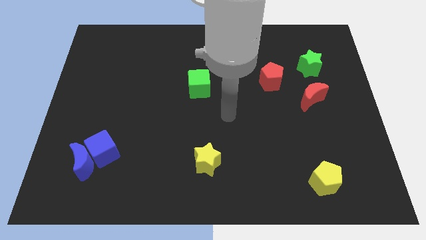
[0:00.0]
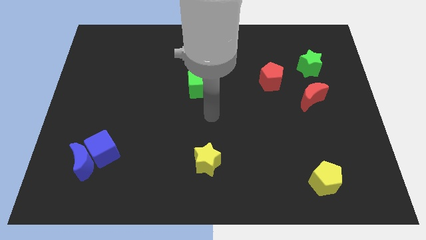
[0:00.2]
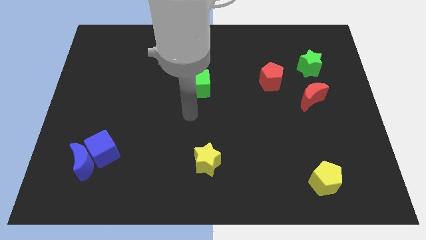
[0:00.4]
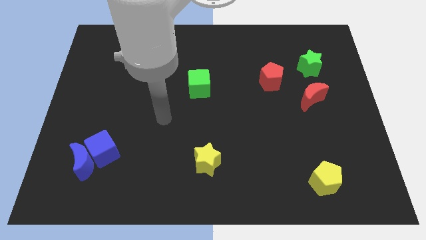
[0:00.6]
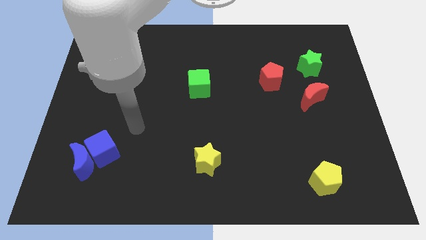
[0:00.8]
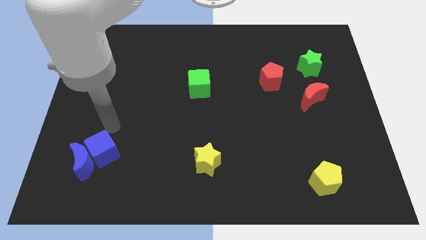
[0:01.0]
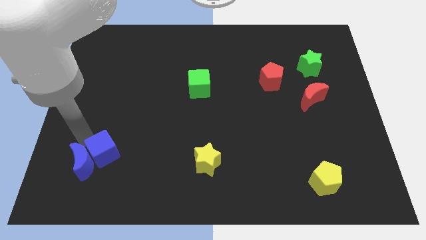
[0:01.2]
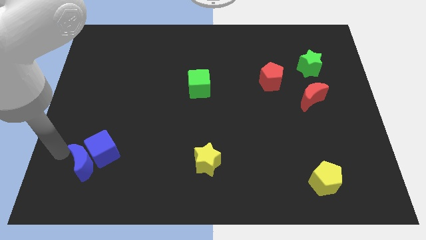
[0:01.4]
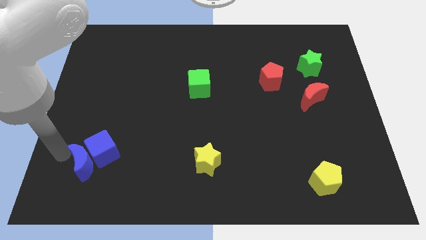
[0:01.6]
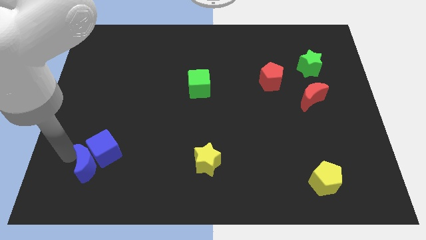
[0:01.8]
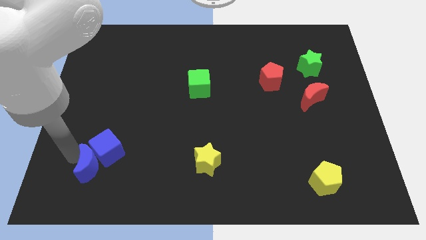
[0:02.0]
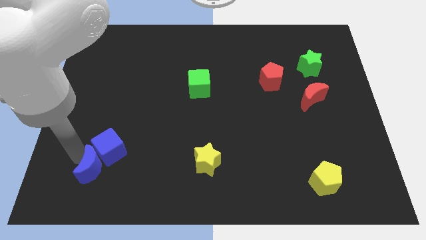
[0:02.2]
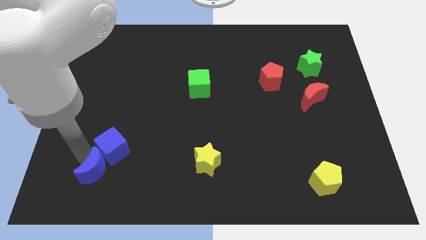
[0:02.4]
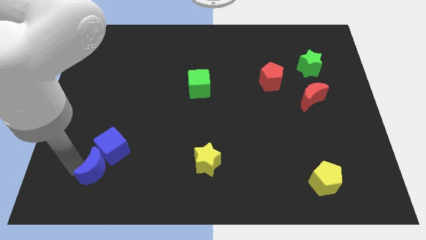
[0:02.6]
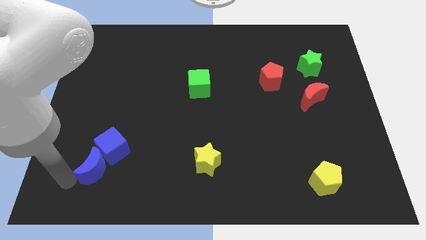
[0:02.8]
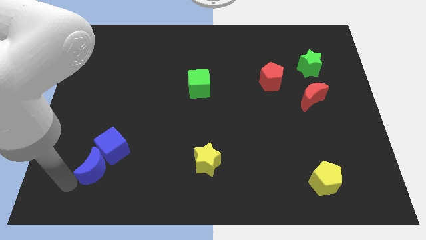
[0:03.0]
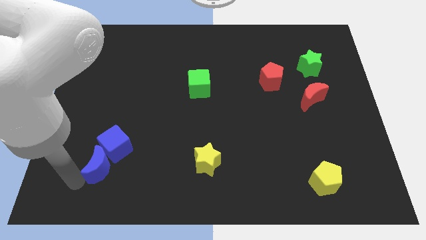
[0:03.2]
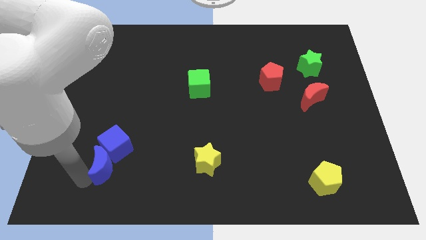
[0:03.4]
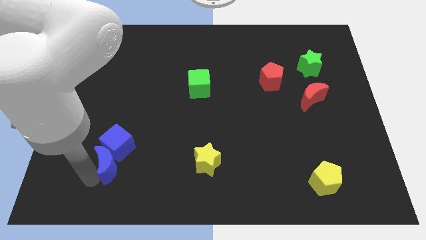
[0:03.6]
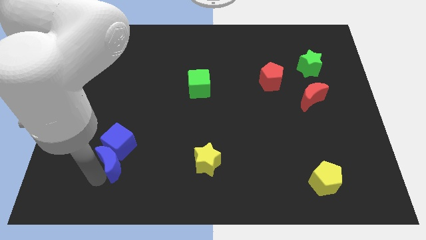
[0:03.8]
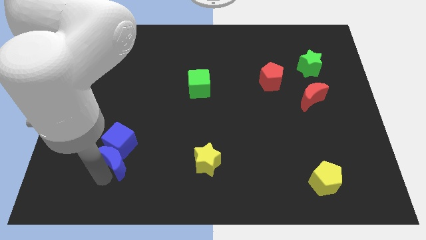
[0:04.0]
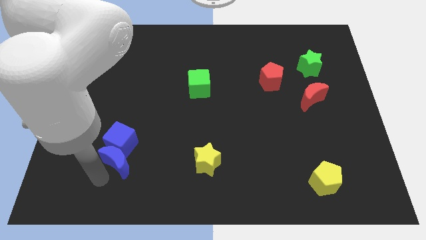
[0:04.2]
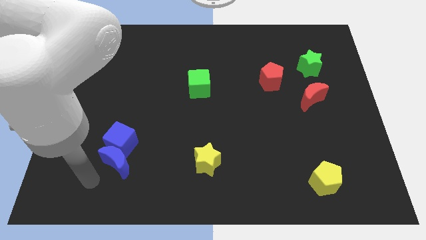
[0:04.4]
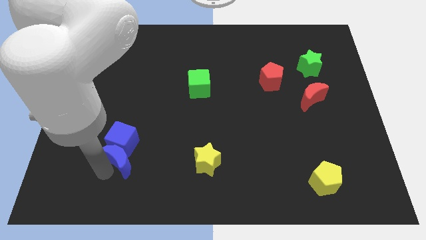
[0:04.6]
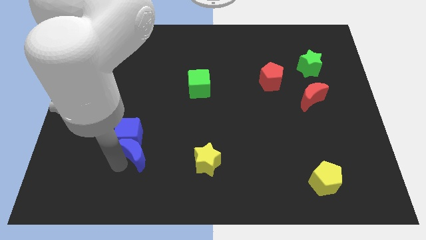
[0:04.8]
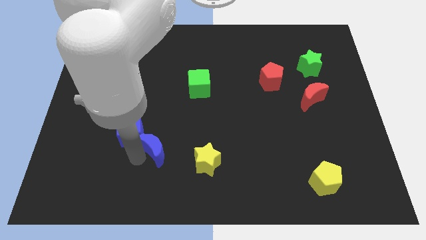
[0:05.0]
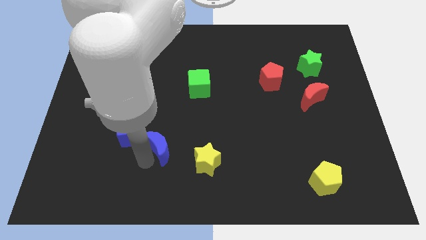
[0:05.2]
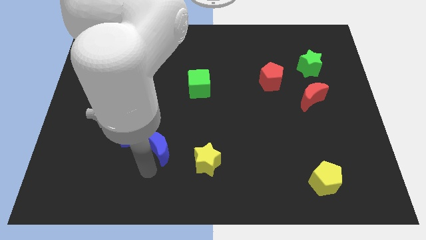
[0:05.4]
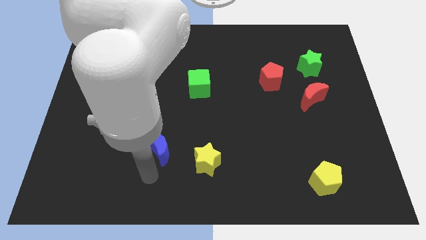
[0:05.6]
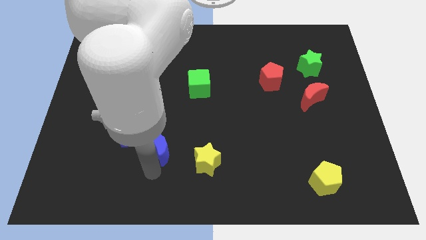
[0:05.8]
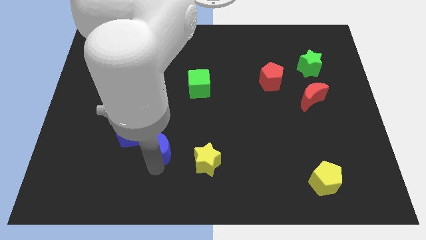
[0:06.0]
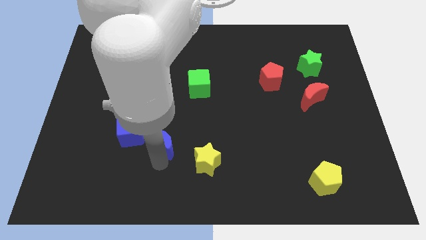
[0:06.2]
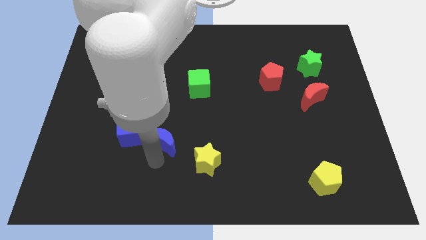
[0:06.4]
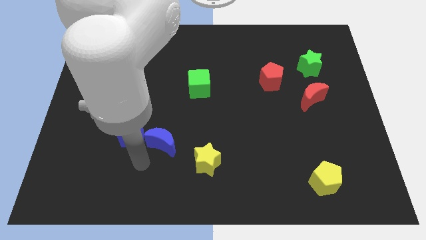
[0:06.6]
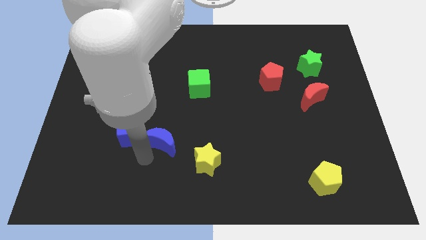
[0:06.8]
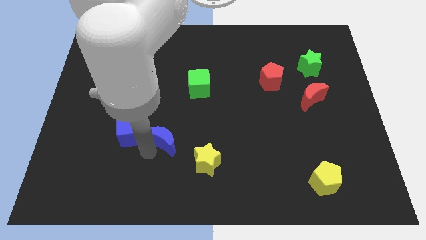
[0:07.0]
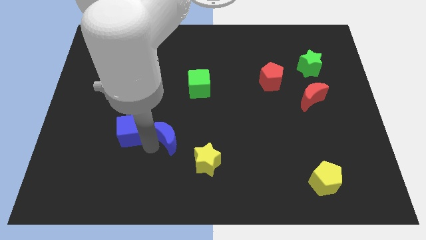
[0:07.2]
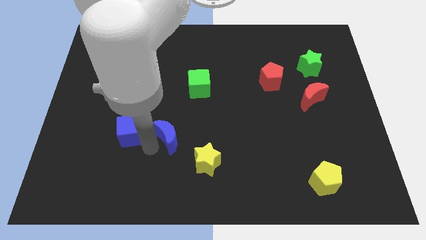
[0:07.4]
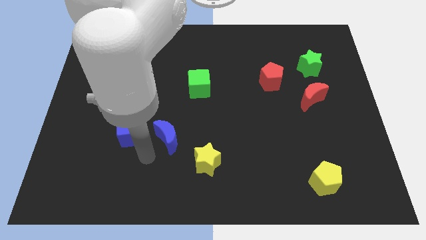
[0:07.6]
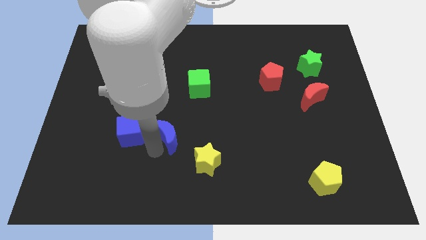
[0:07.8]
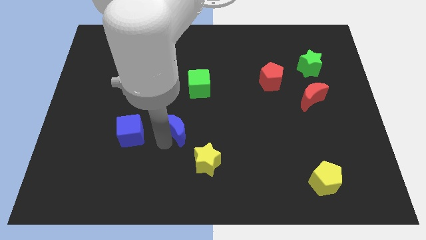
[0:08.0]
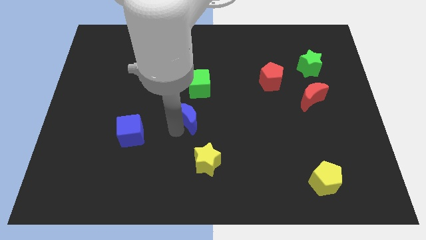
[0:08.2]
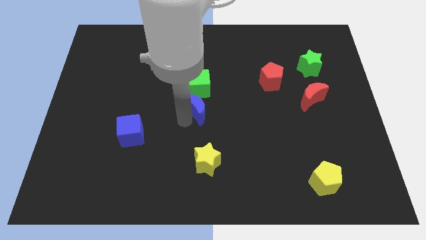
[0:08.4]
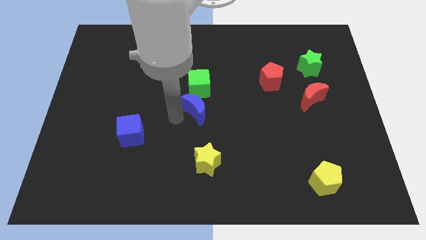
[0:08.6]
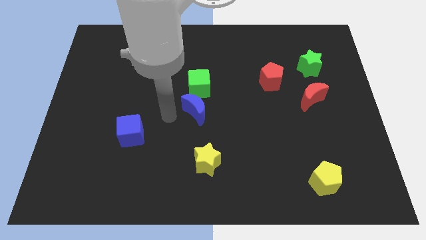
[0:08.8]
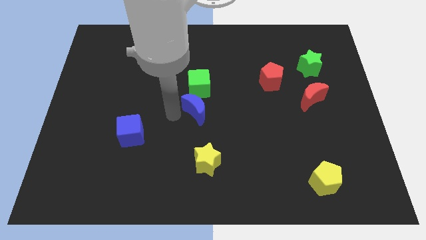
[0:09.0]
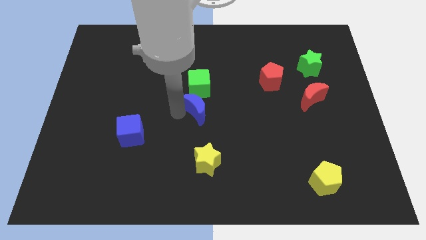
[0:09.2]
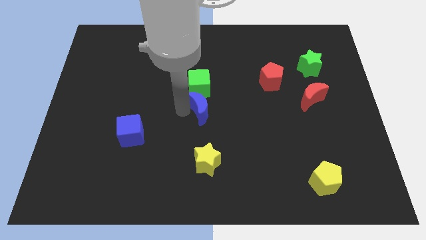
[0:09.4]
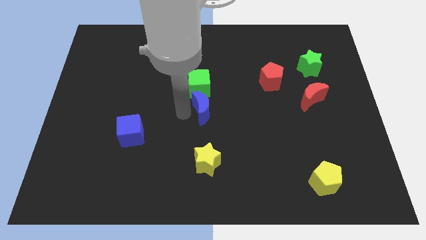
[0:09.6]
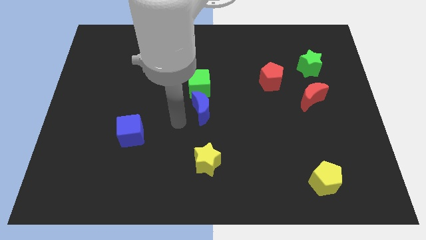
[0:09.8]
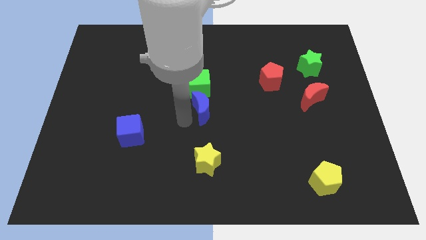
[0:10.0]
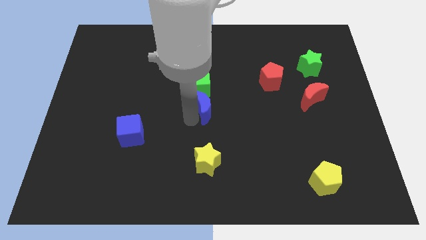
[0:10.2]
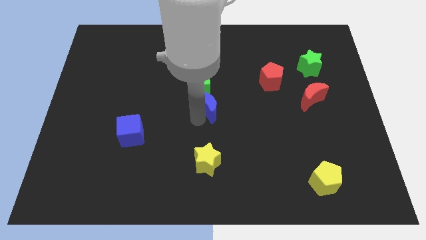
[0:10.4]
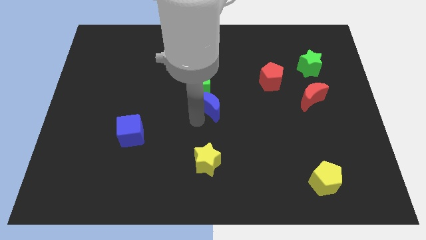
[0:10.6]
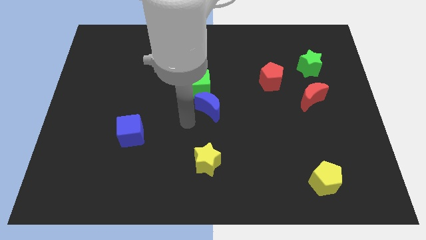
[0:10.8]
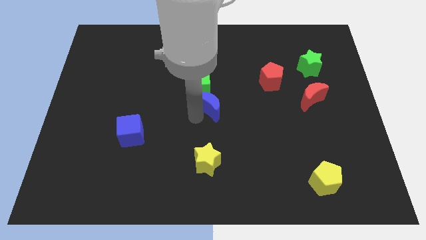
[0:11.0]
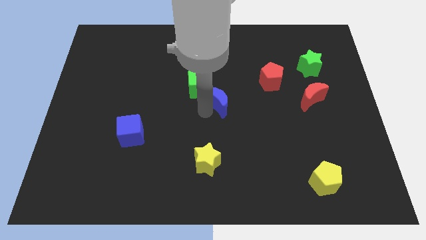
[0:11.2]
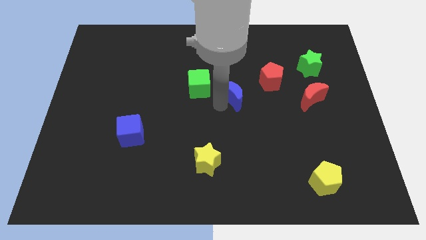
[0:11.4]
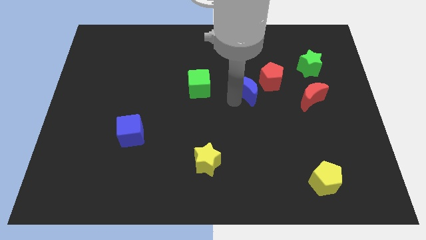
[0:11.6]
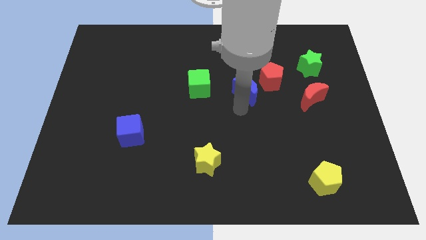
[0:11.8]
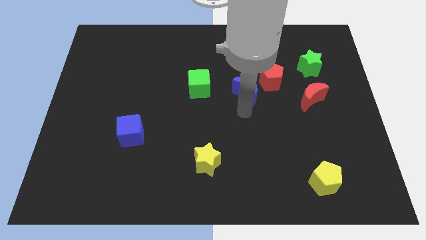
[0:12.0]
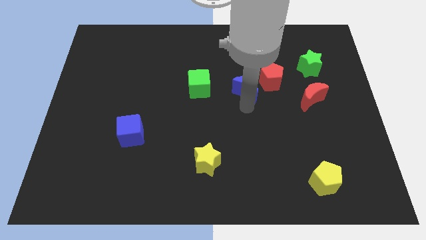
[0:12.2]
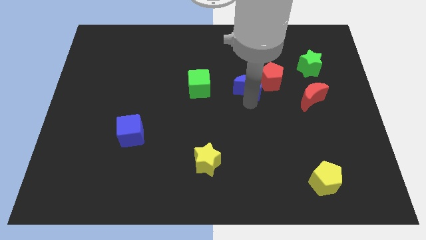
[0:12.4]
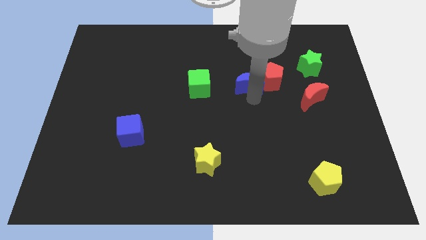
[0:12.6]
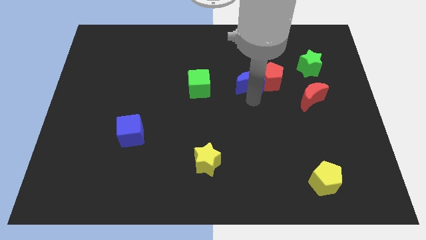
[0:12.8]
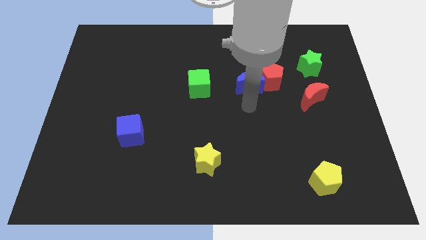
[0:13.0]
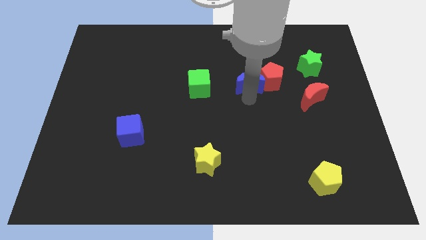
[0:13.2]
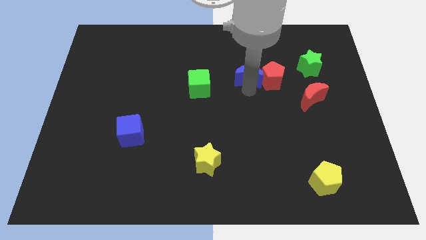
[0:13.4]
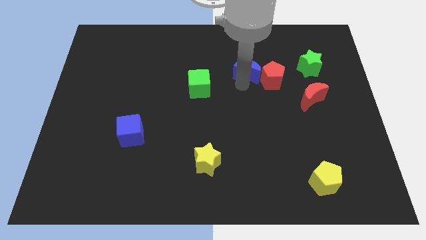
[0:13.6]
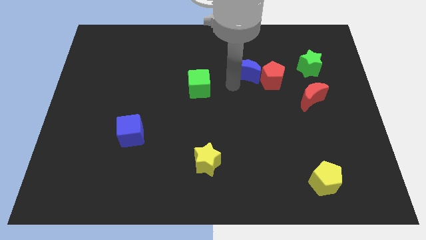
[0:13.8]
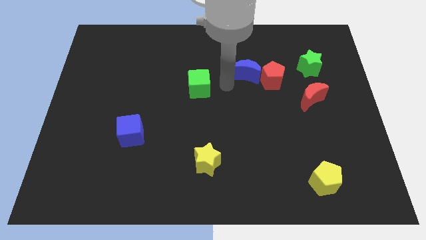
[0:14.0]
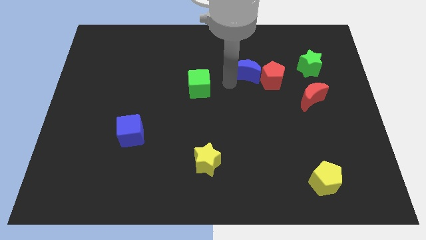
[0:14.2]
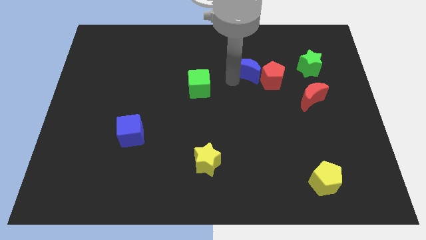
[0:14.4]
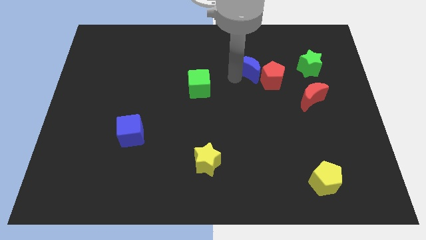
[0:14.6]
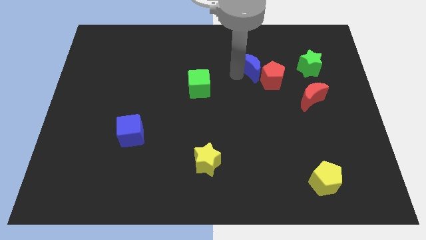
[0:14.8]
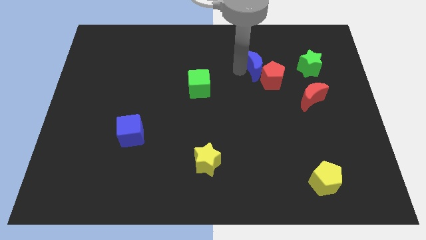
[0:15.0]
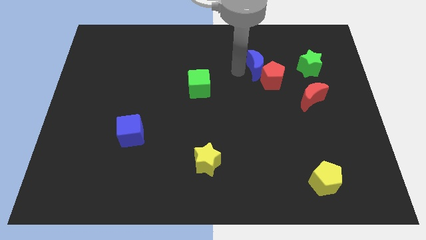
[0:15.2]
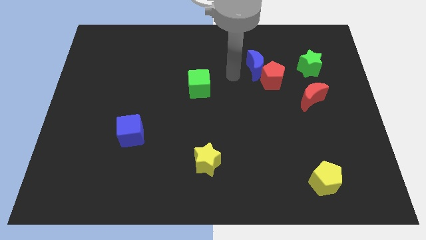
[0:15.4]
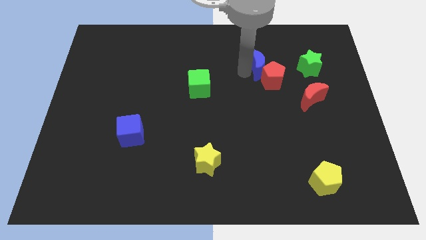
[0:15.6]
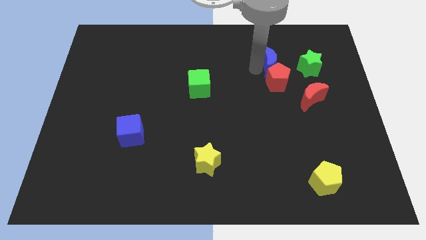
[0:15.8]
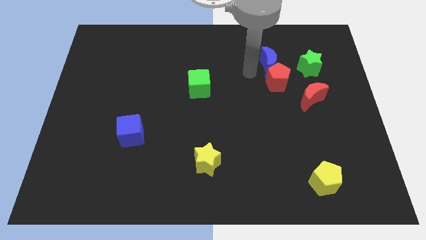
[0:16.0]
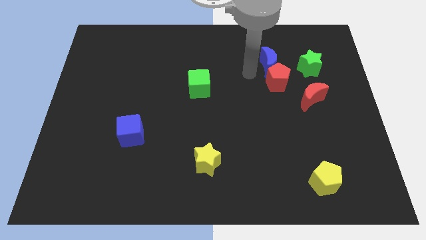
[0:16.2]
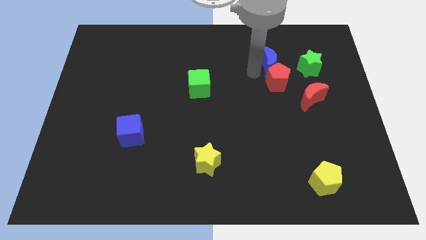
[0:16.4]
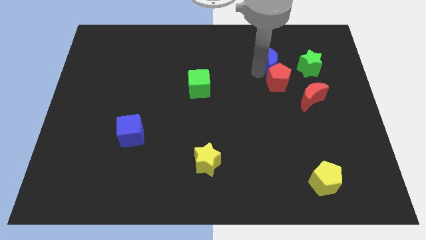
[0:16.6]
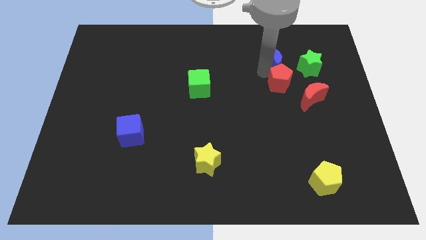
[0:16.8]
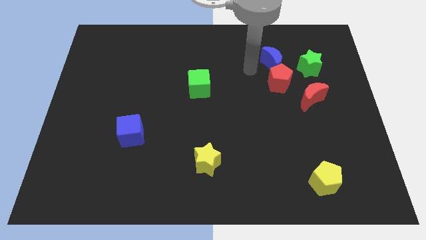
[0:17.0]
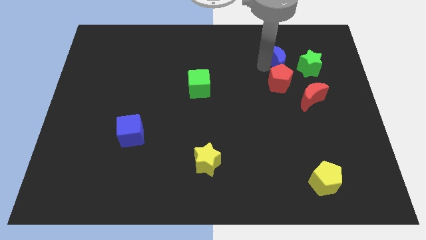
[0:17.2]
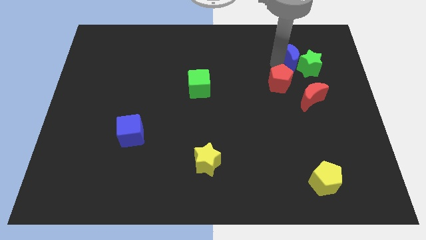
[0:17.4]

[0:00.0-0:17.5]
put the blue moon to the top side of the red moon
